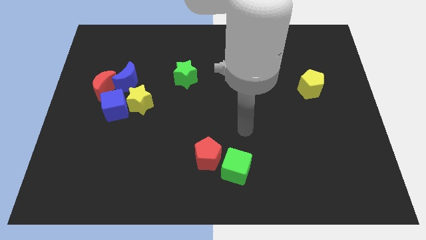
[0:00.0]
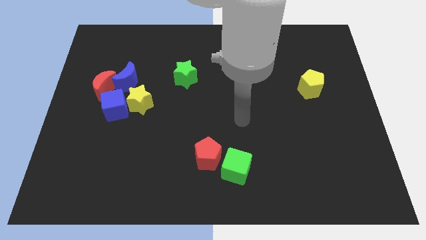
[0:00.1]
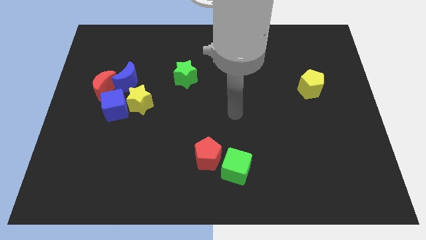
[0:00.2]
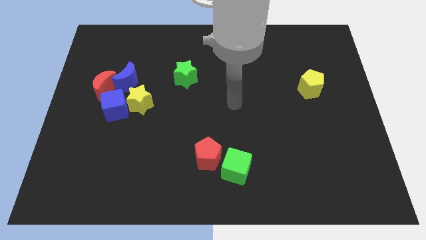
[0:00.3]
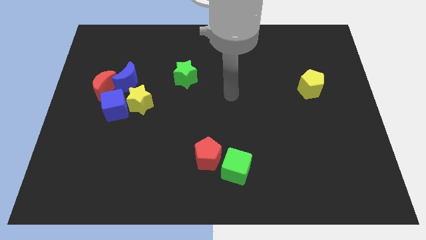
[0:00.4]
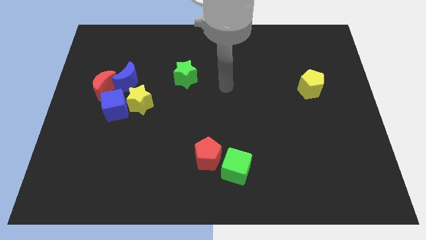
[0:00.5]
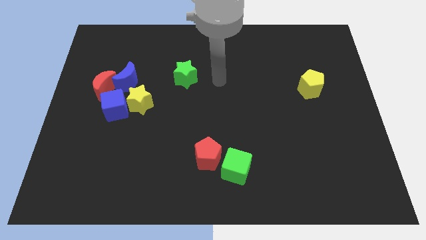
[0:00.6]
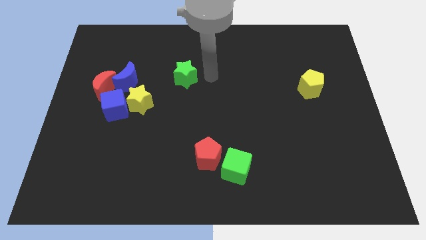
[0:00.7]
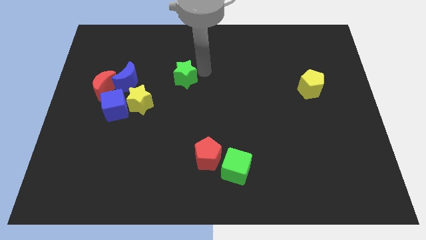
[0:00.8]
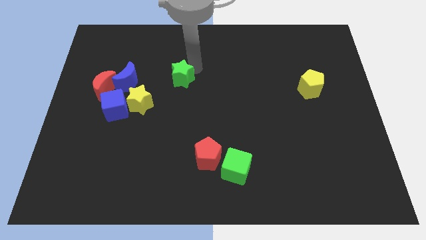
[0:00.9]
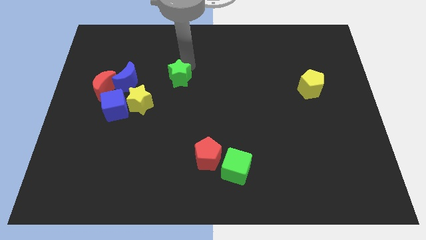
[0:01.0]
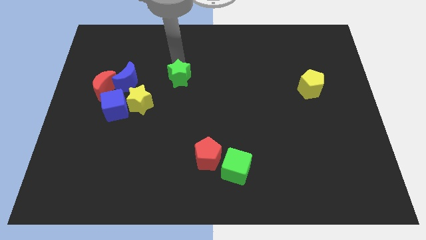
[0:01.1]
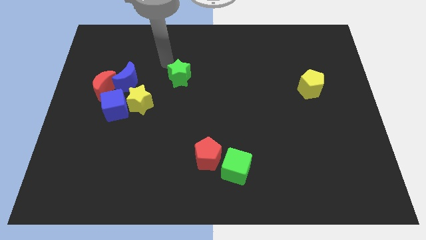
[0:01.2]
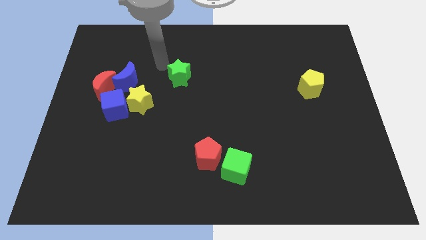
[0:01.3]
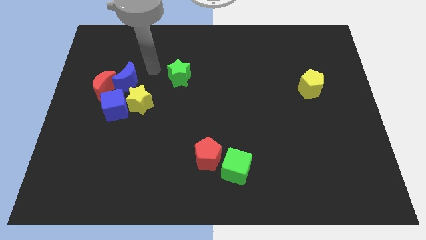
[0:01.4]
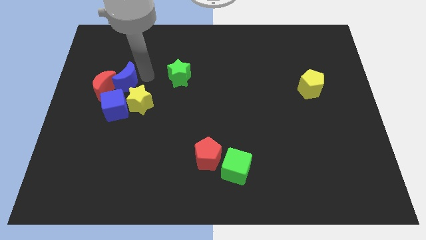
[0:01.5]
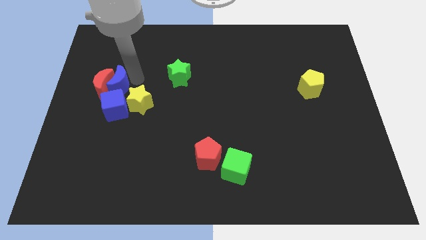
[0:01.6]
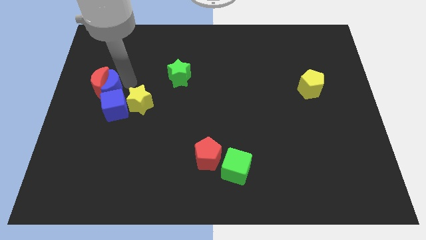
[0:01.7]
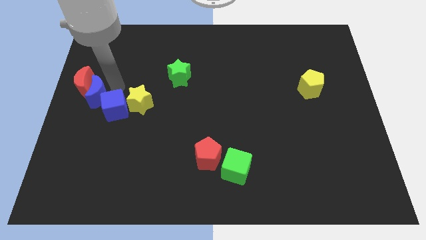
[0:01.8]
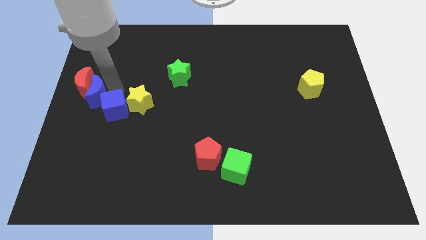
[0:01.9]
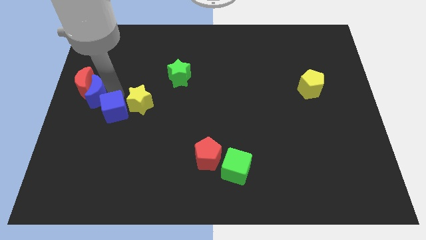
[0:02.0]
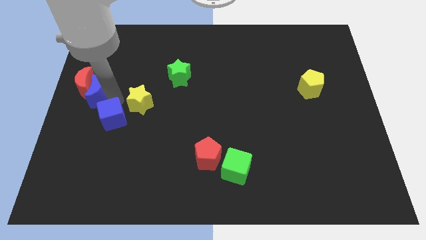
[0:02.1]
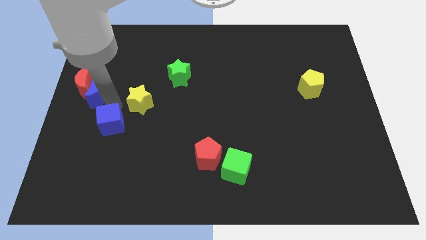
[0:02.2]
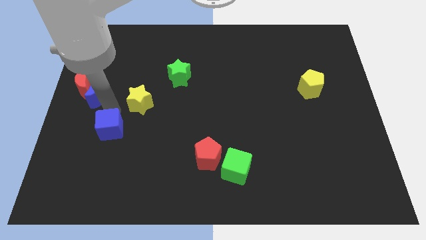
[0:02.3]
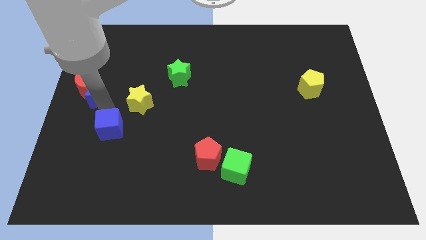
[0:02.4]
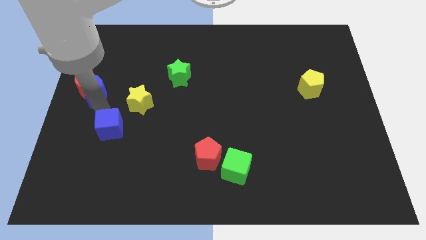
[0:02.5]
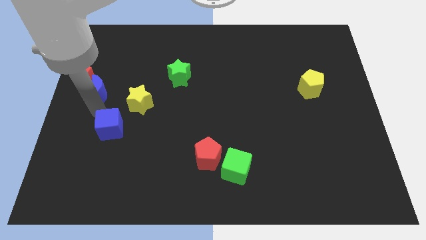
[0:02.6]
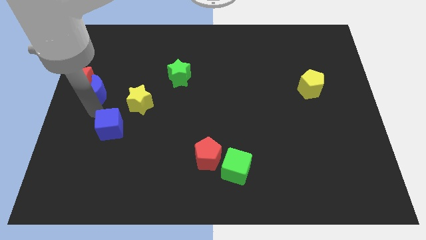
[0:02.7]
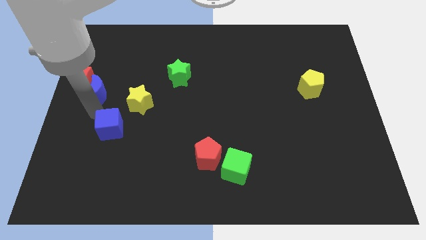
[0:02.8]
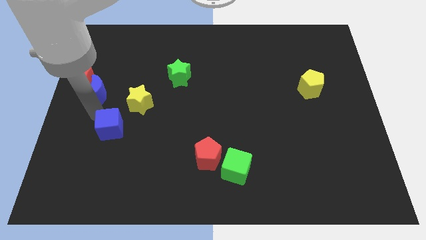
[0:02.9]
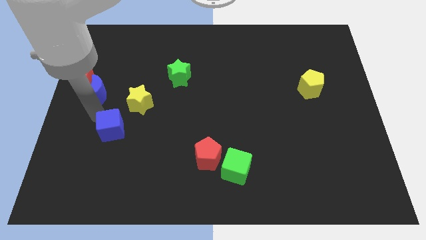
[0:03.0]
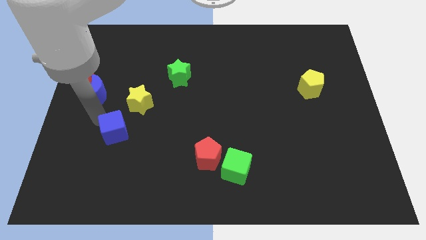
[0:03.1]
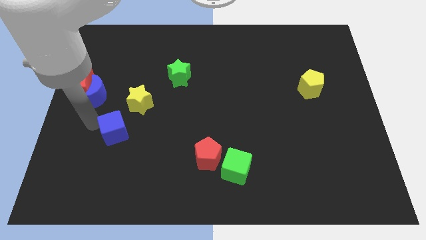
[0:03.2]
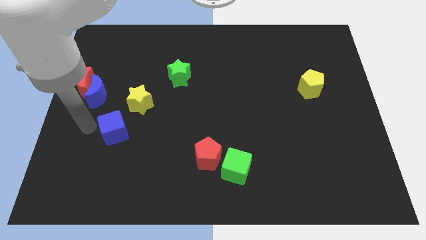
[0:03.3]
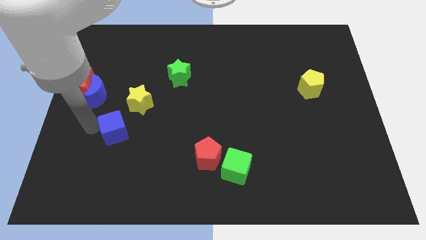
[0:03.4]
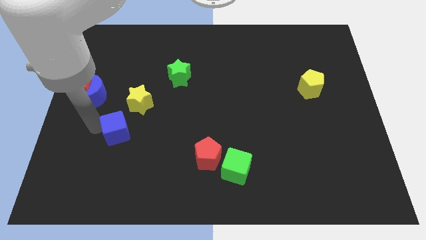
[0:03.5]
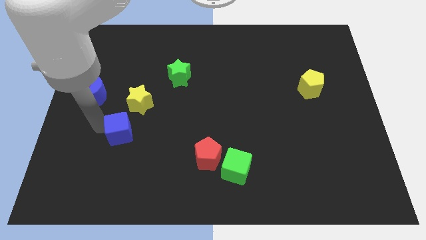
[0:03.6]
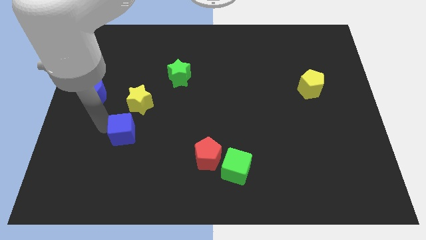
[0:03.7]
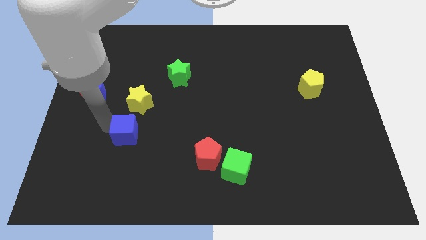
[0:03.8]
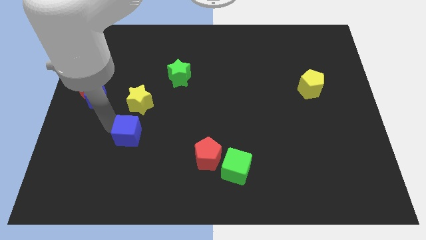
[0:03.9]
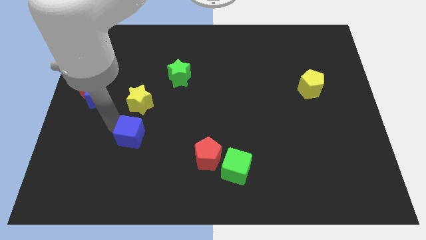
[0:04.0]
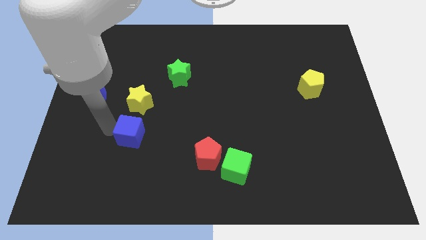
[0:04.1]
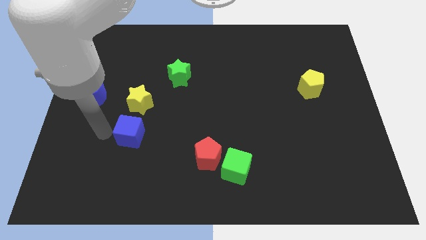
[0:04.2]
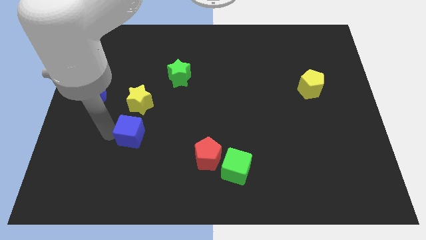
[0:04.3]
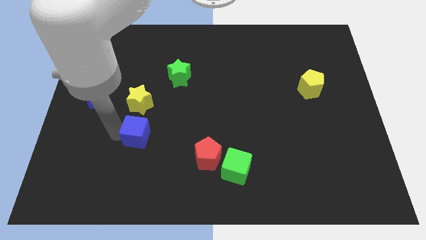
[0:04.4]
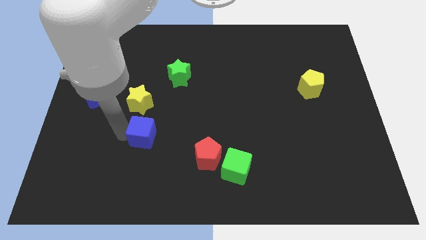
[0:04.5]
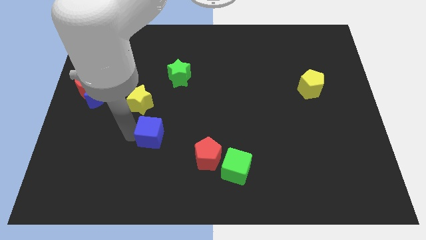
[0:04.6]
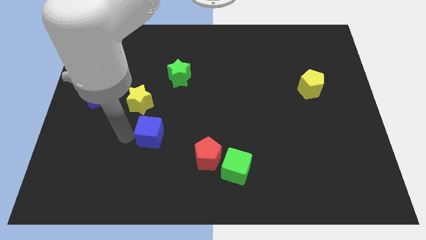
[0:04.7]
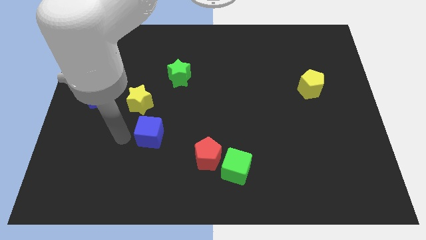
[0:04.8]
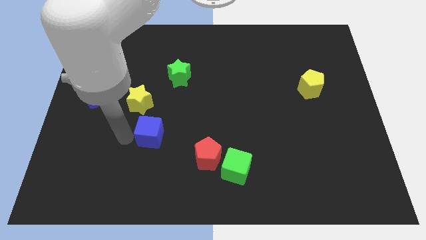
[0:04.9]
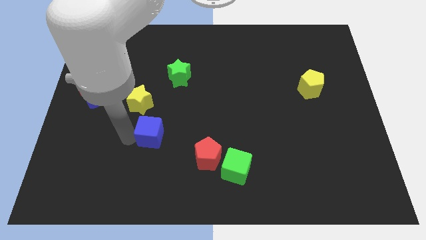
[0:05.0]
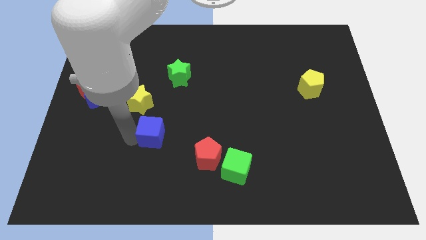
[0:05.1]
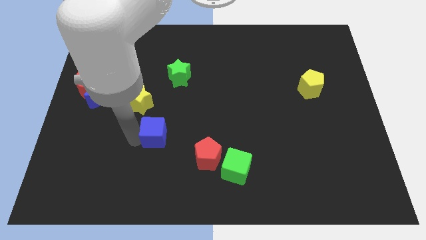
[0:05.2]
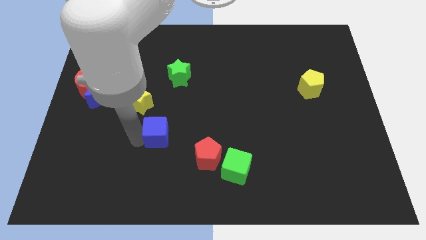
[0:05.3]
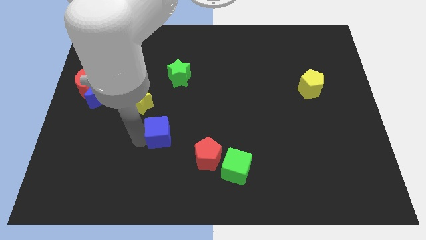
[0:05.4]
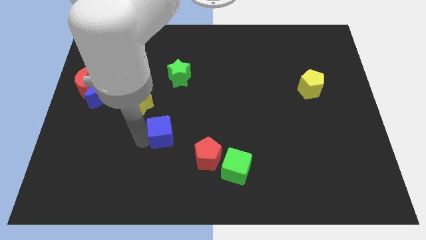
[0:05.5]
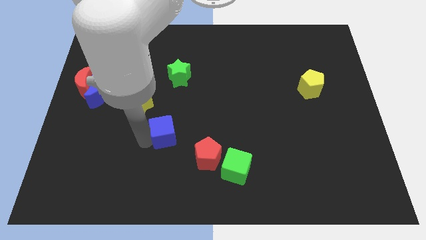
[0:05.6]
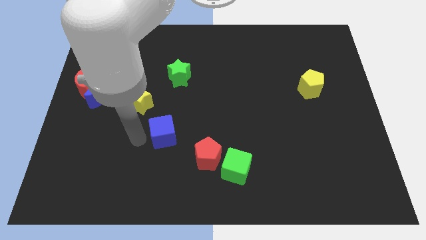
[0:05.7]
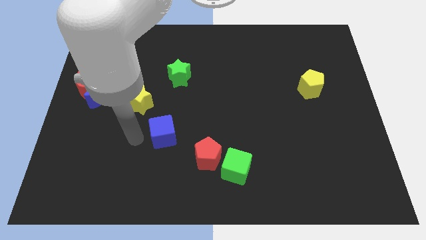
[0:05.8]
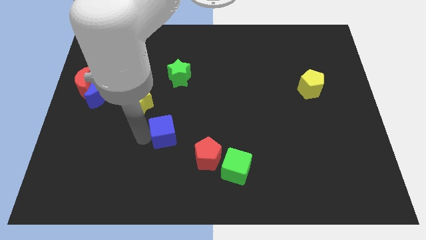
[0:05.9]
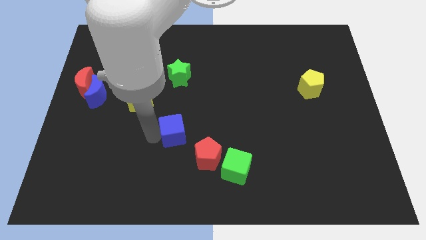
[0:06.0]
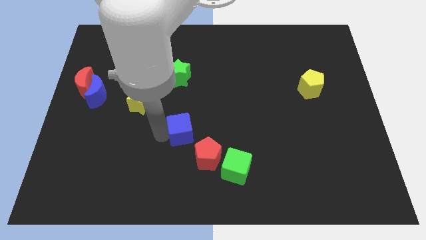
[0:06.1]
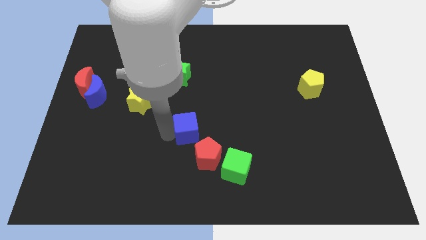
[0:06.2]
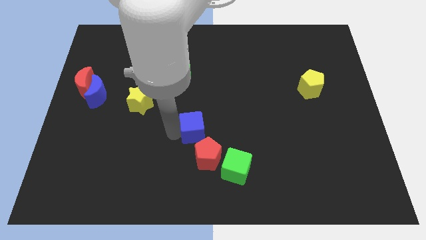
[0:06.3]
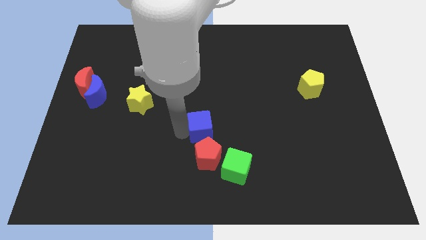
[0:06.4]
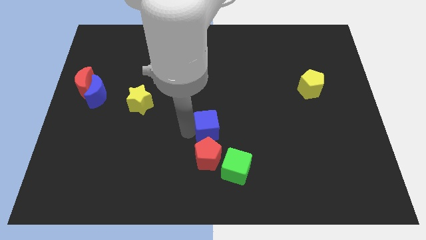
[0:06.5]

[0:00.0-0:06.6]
move the blue cube to the right

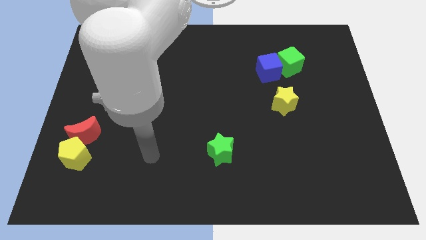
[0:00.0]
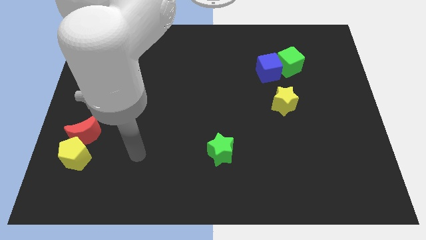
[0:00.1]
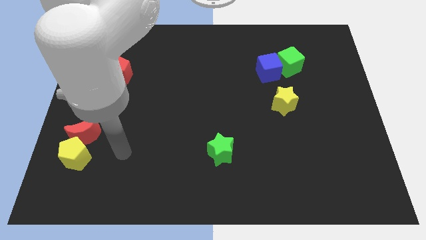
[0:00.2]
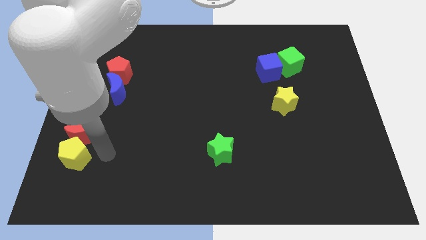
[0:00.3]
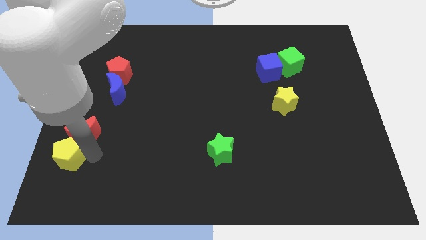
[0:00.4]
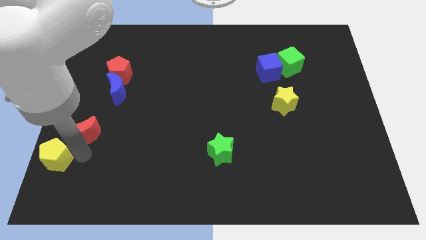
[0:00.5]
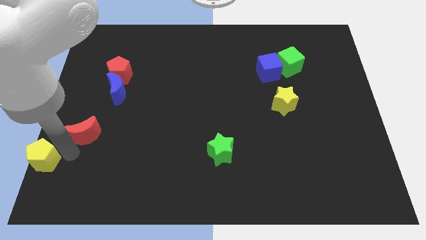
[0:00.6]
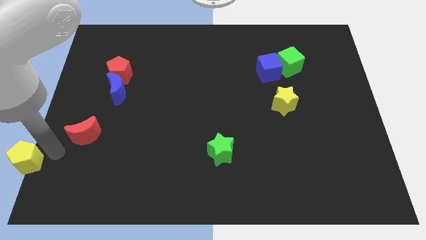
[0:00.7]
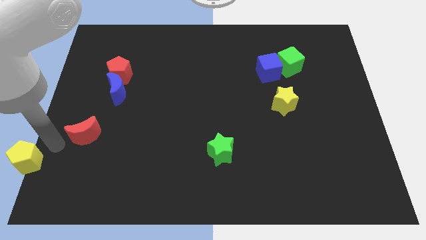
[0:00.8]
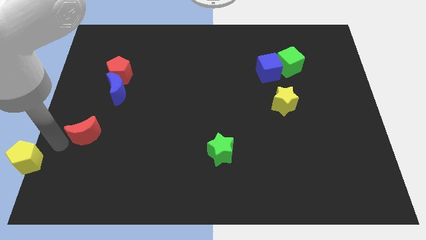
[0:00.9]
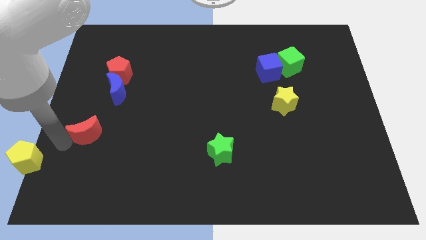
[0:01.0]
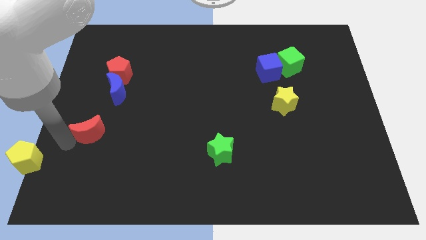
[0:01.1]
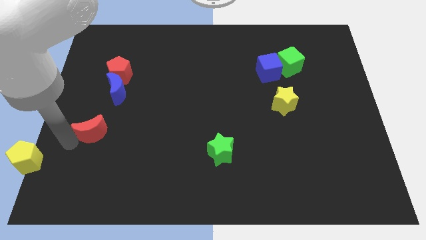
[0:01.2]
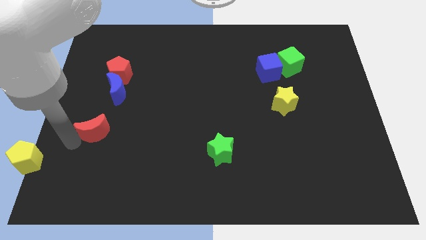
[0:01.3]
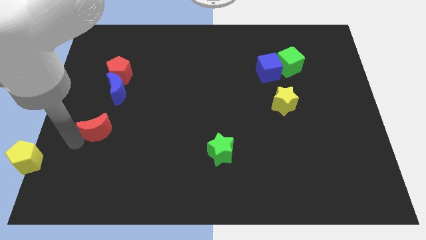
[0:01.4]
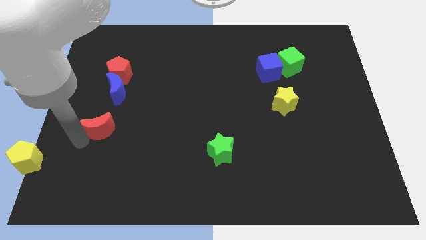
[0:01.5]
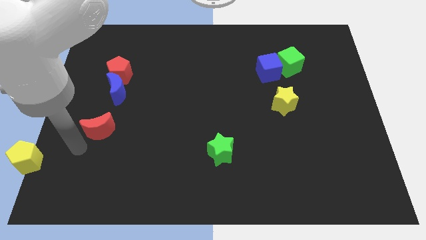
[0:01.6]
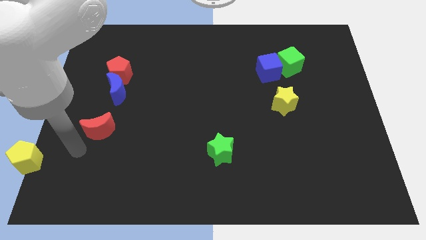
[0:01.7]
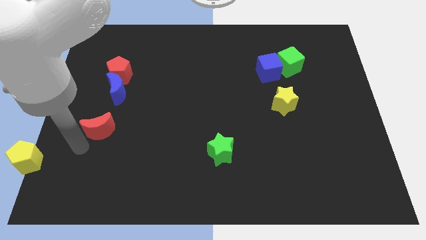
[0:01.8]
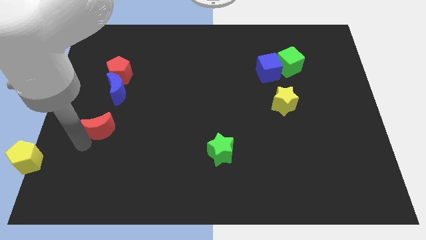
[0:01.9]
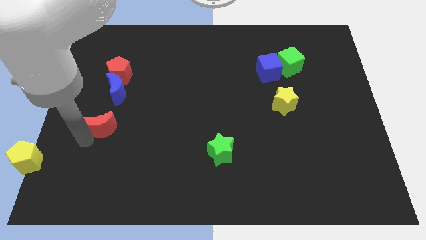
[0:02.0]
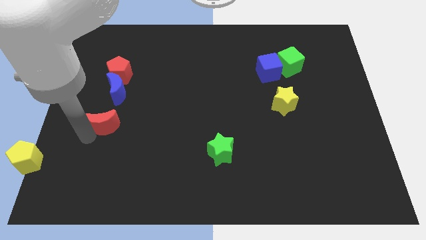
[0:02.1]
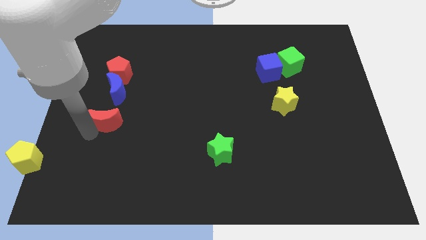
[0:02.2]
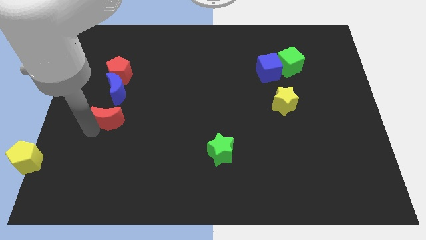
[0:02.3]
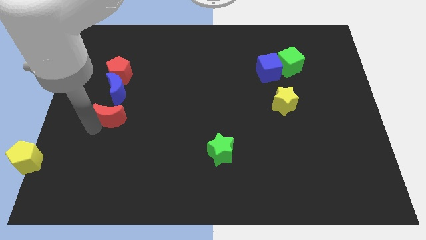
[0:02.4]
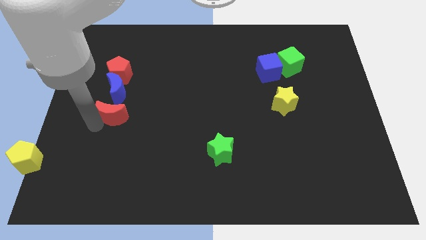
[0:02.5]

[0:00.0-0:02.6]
move the red moon a bit upwards and then right
